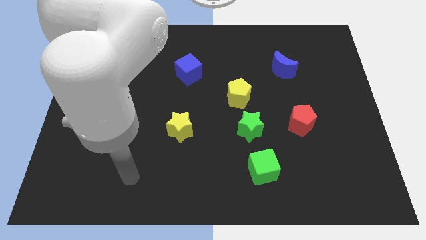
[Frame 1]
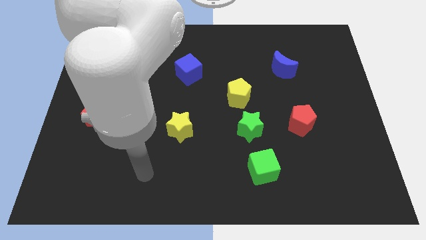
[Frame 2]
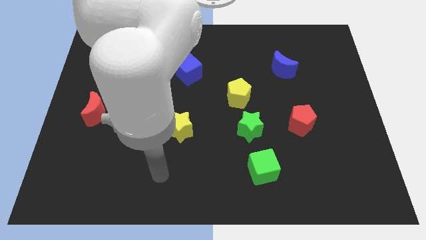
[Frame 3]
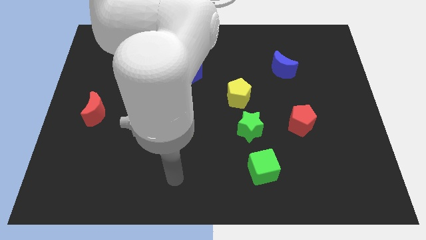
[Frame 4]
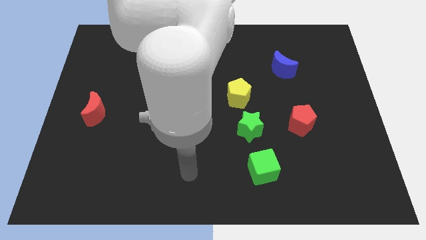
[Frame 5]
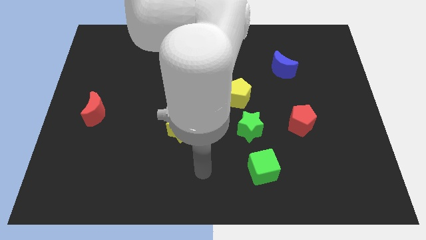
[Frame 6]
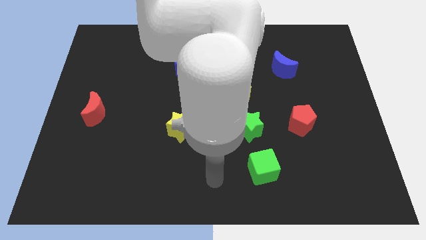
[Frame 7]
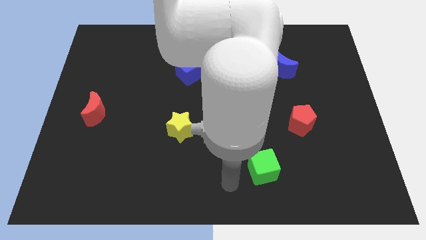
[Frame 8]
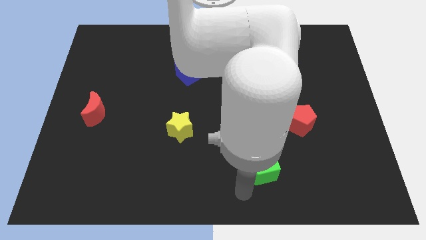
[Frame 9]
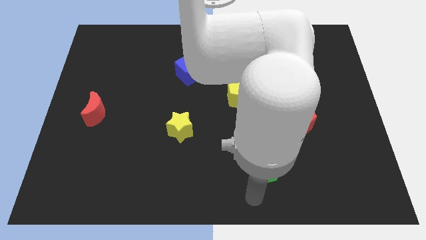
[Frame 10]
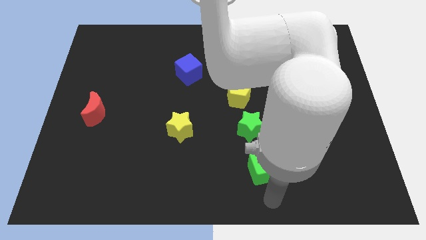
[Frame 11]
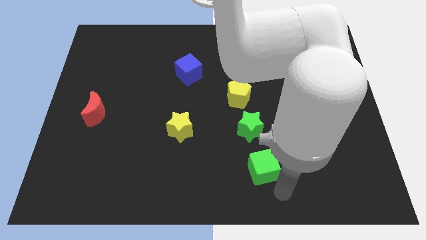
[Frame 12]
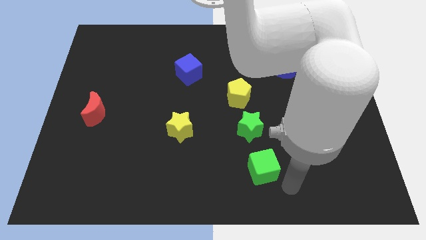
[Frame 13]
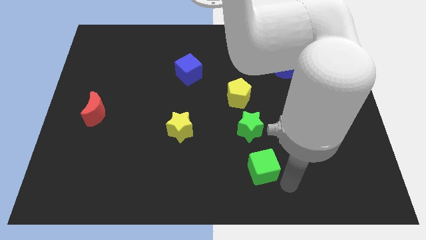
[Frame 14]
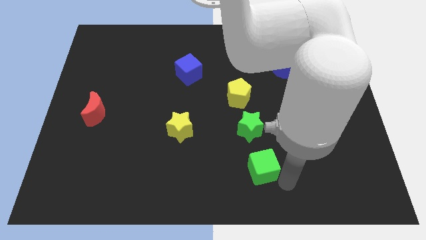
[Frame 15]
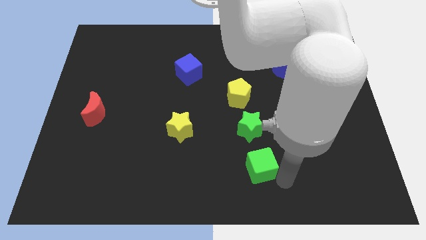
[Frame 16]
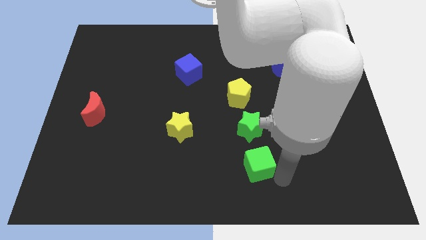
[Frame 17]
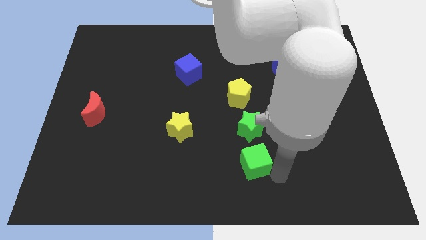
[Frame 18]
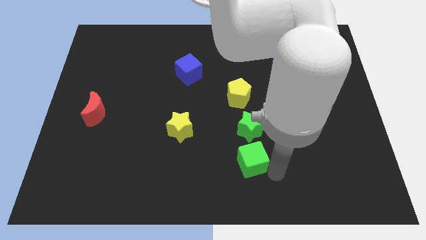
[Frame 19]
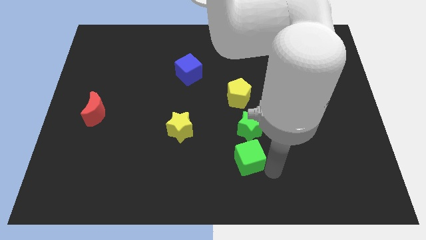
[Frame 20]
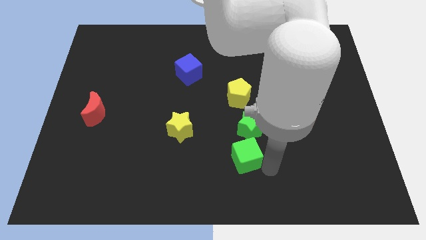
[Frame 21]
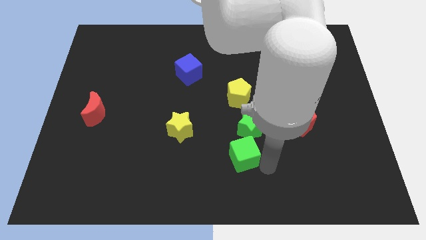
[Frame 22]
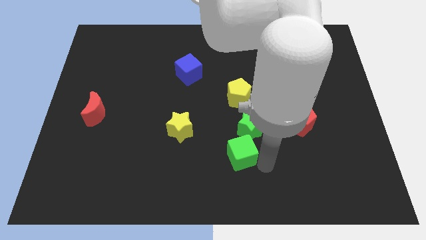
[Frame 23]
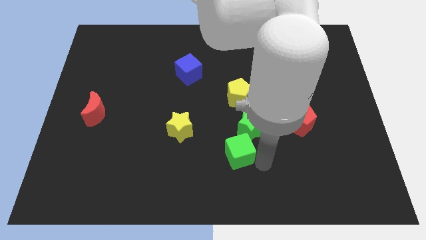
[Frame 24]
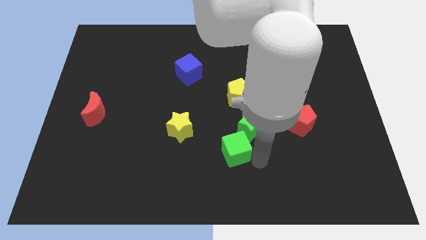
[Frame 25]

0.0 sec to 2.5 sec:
slightly slide the green cube upwards and left diagonally

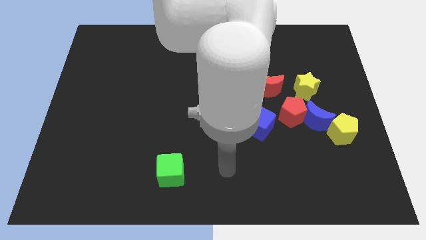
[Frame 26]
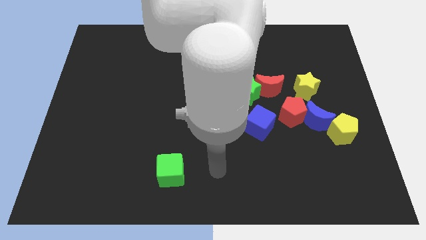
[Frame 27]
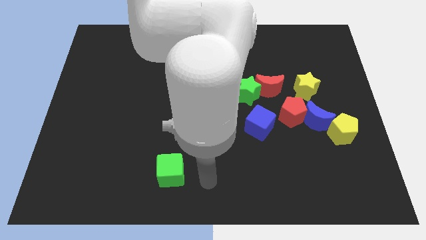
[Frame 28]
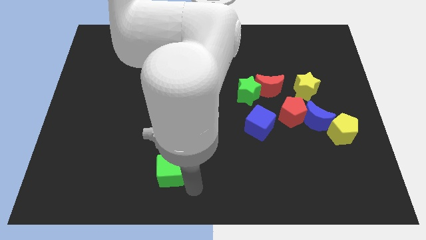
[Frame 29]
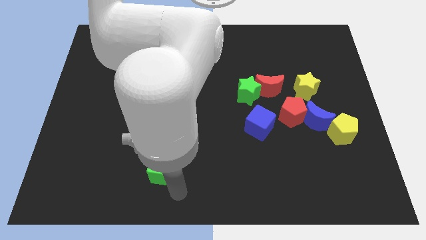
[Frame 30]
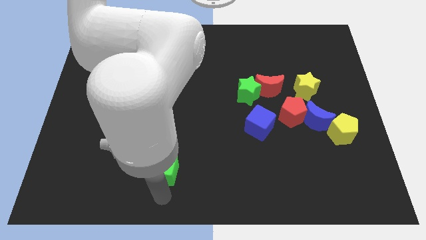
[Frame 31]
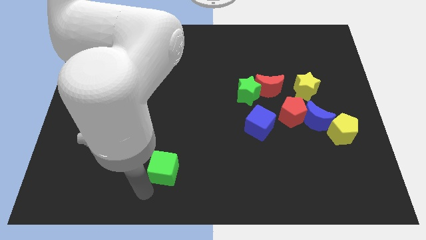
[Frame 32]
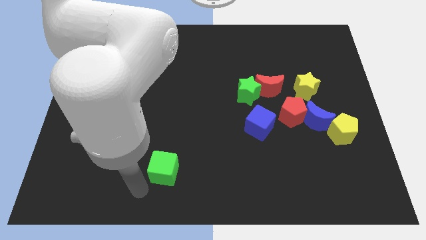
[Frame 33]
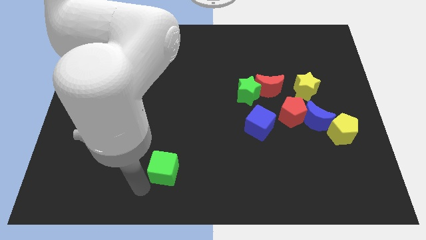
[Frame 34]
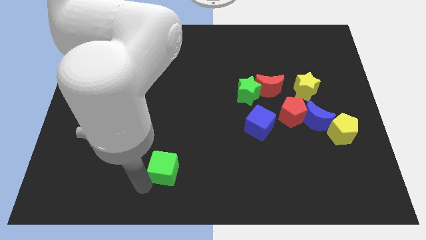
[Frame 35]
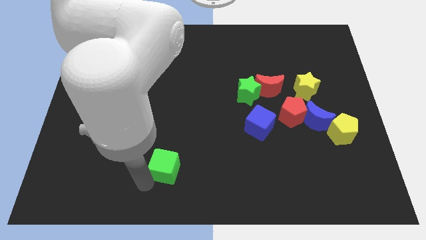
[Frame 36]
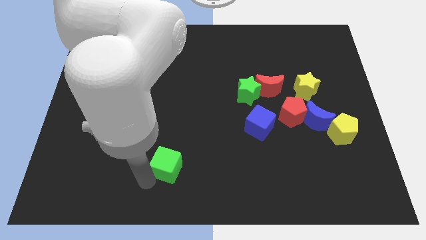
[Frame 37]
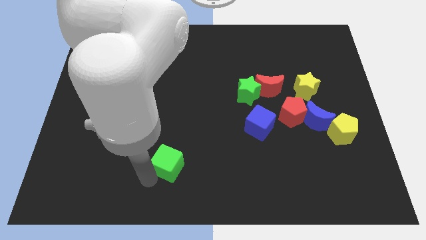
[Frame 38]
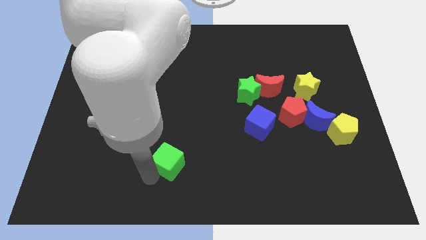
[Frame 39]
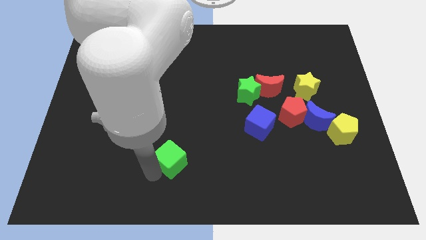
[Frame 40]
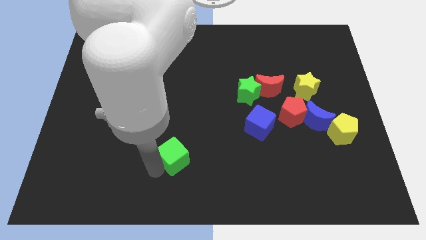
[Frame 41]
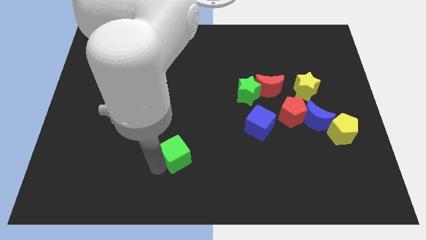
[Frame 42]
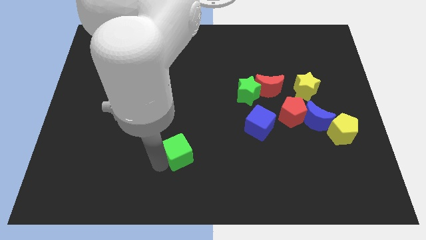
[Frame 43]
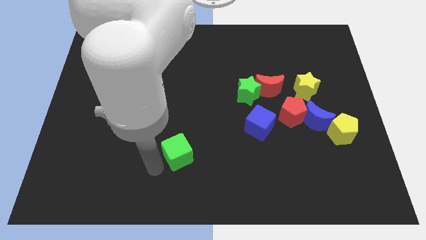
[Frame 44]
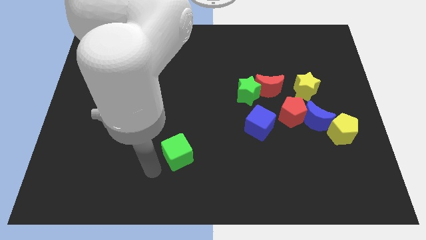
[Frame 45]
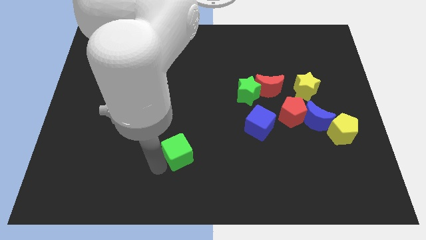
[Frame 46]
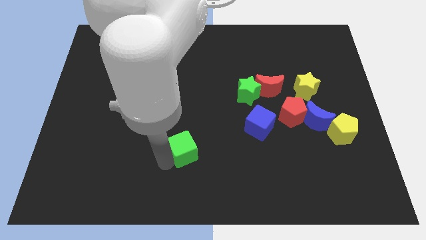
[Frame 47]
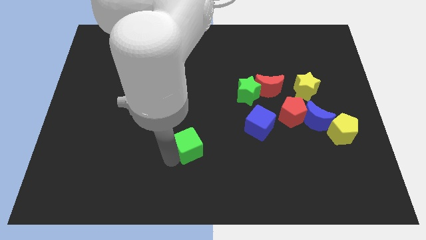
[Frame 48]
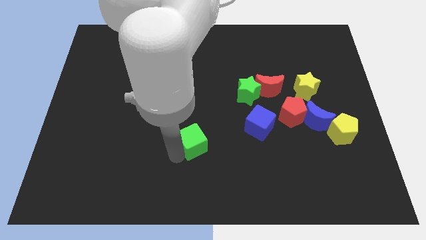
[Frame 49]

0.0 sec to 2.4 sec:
slide the green cube a bit diagonally up and right

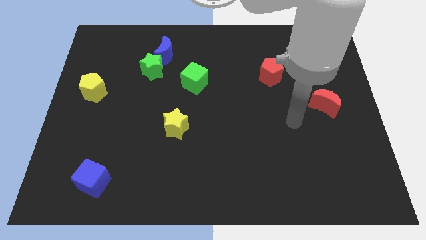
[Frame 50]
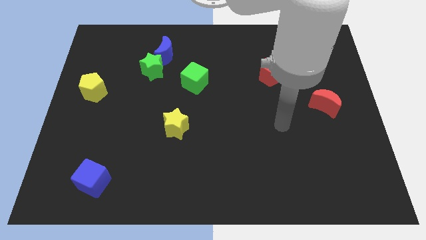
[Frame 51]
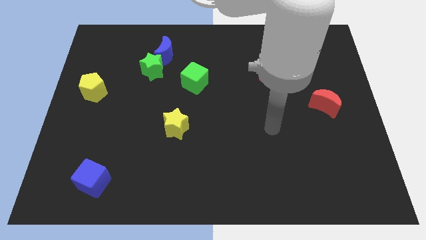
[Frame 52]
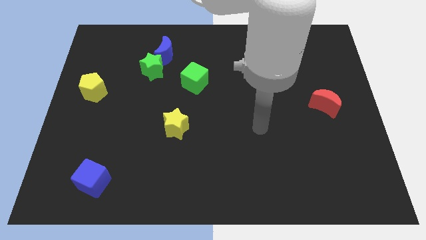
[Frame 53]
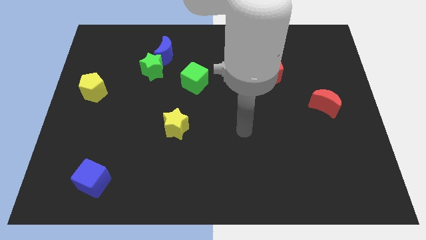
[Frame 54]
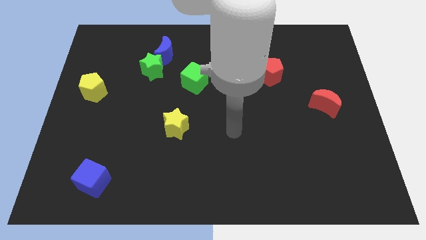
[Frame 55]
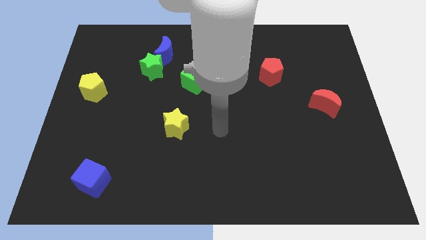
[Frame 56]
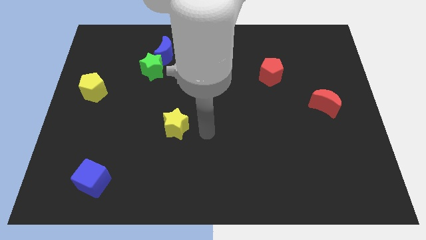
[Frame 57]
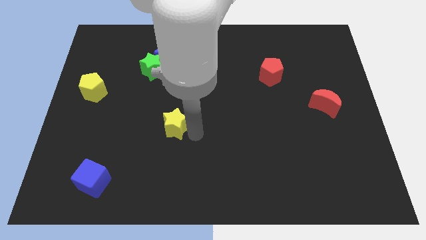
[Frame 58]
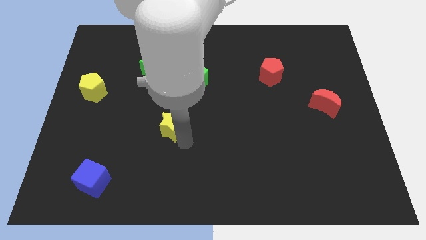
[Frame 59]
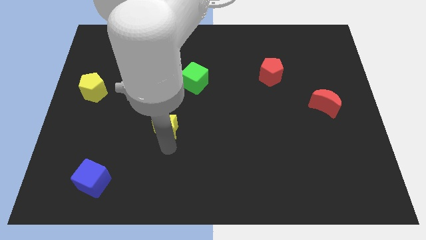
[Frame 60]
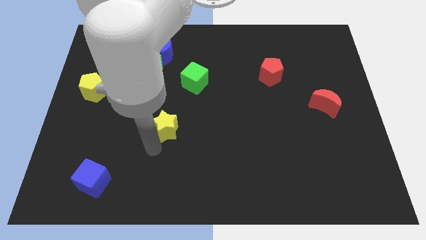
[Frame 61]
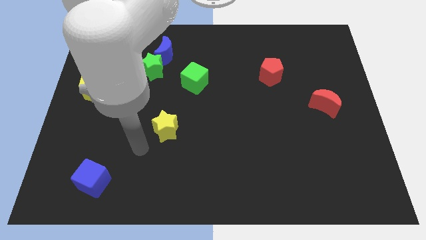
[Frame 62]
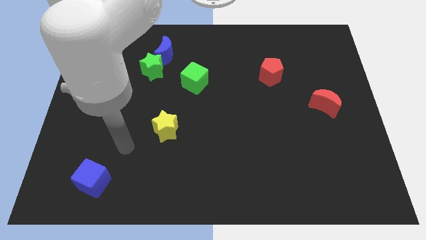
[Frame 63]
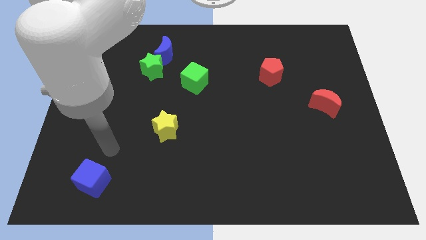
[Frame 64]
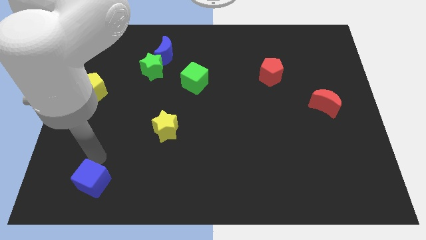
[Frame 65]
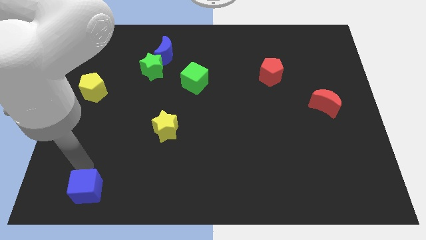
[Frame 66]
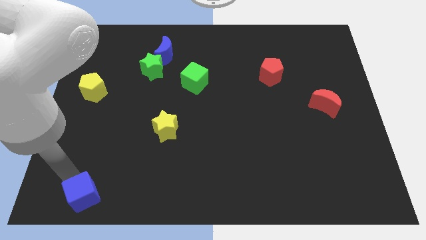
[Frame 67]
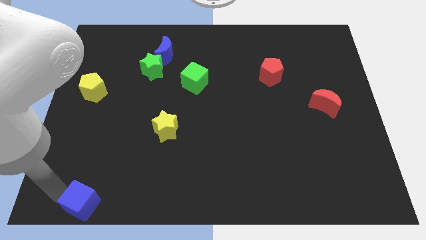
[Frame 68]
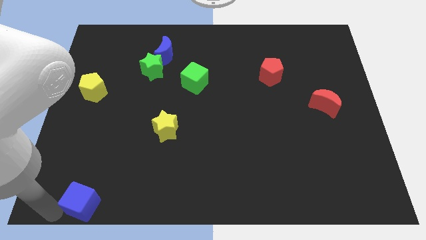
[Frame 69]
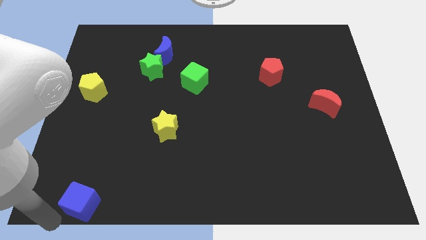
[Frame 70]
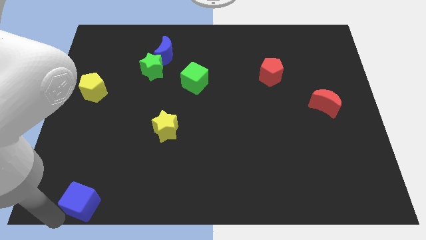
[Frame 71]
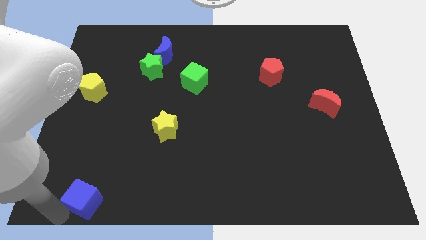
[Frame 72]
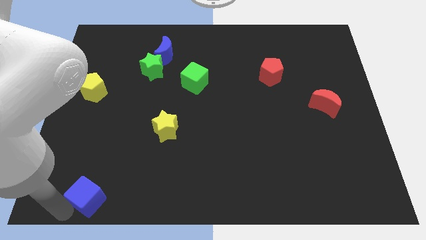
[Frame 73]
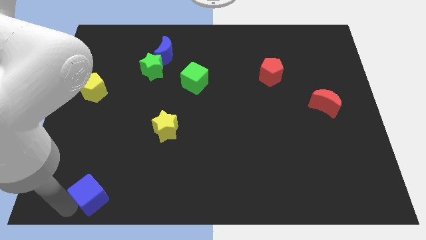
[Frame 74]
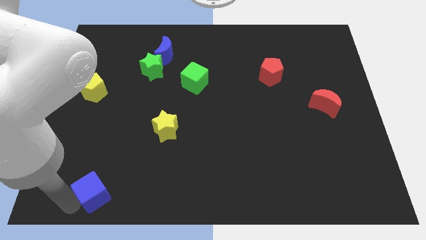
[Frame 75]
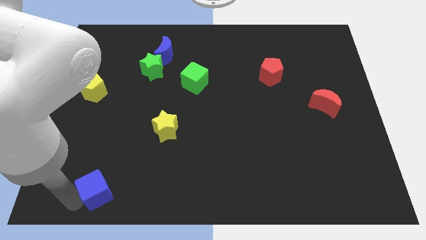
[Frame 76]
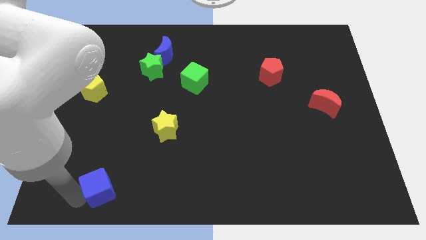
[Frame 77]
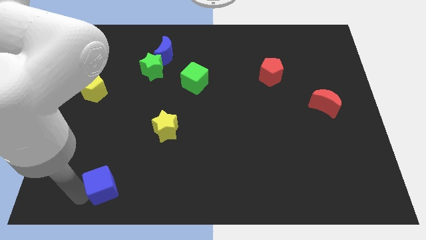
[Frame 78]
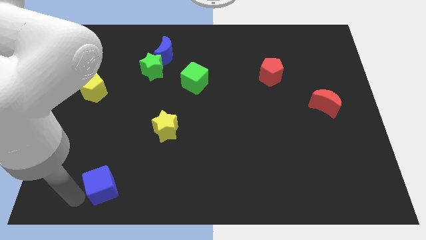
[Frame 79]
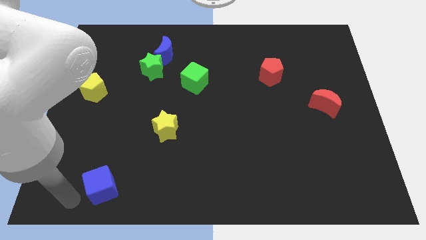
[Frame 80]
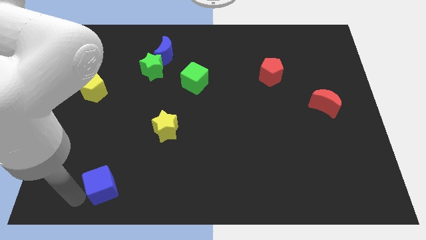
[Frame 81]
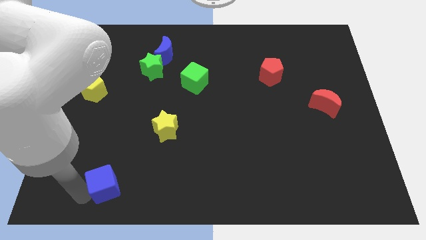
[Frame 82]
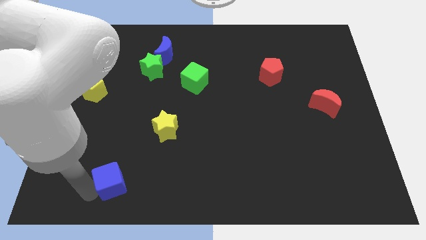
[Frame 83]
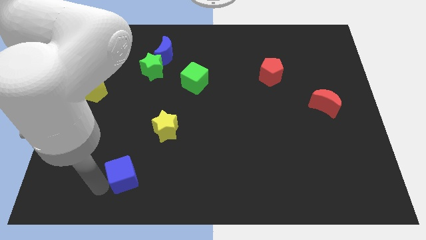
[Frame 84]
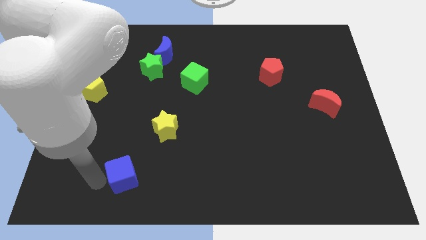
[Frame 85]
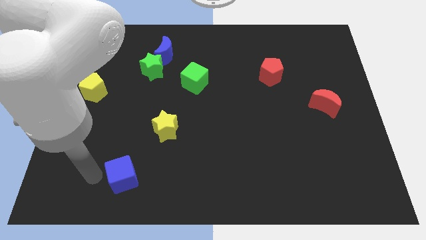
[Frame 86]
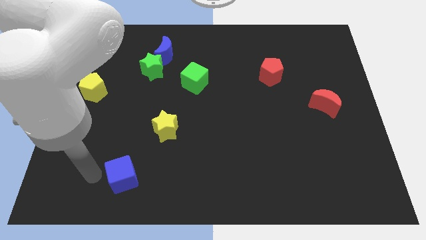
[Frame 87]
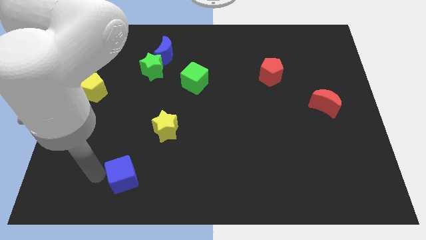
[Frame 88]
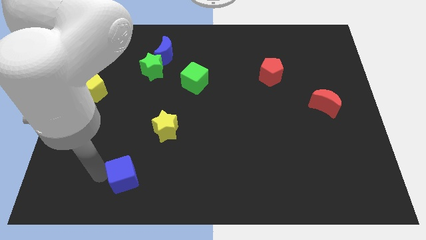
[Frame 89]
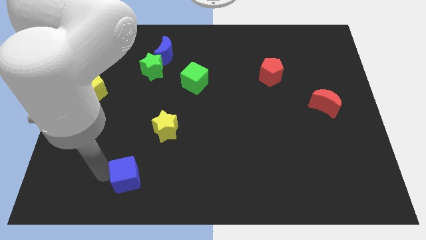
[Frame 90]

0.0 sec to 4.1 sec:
move the blue cube slightly right
